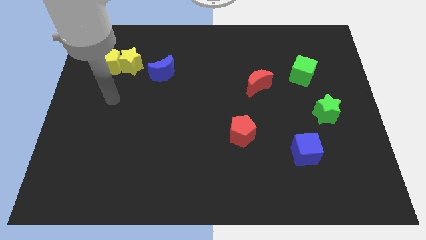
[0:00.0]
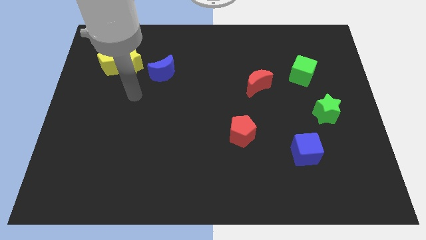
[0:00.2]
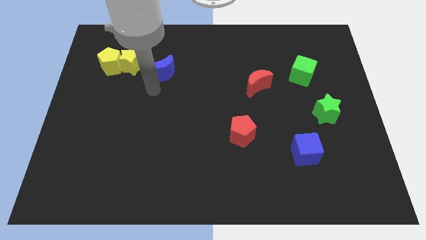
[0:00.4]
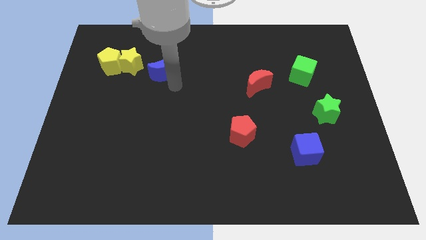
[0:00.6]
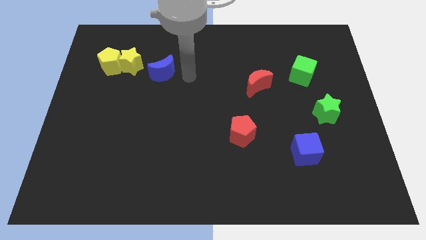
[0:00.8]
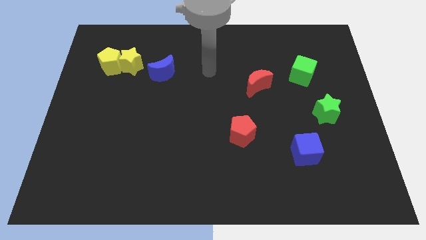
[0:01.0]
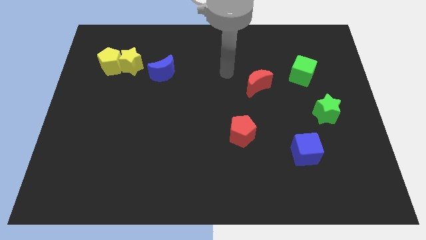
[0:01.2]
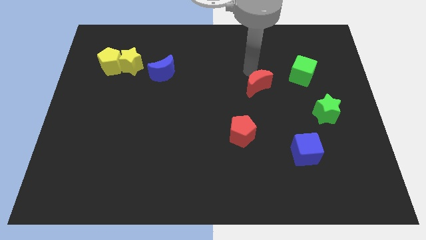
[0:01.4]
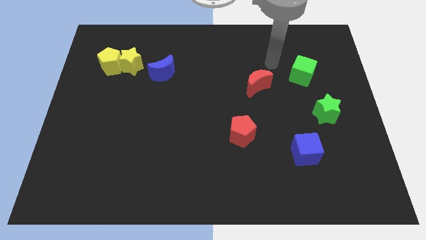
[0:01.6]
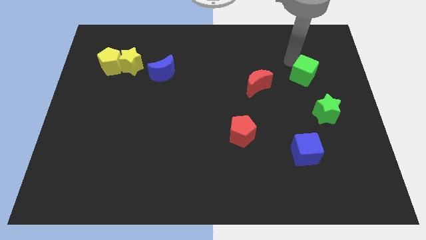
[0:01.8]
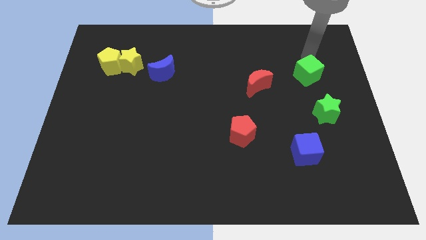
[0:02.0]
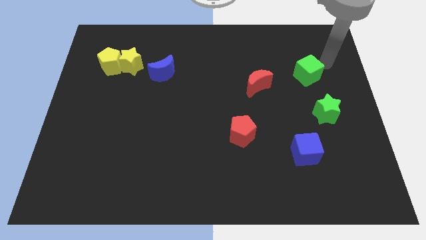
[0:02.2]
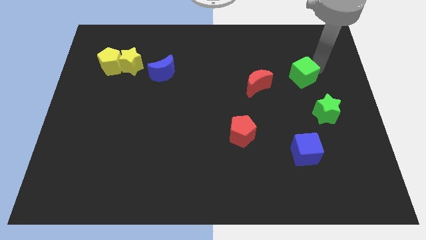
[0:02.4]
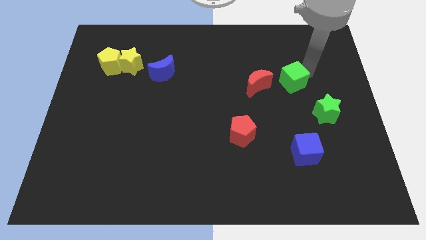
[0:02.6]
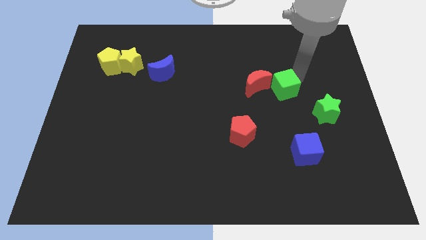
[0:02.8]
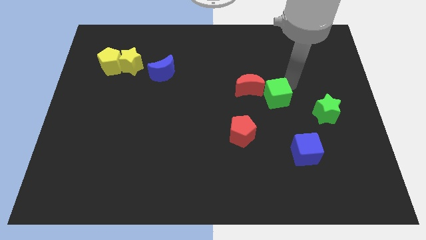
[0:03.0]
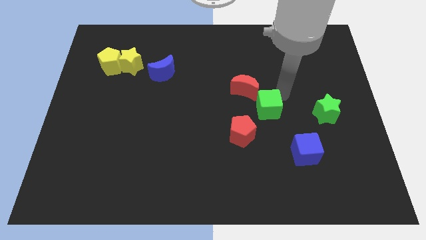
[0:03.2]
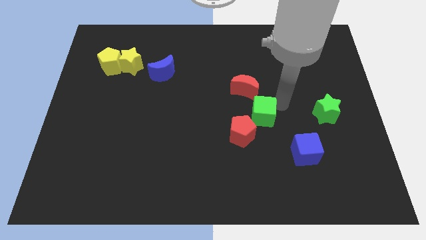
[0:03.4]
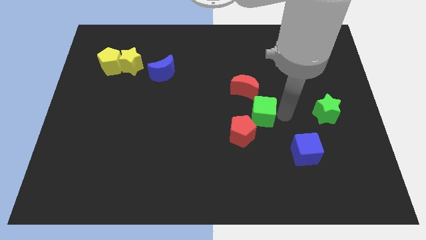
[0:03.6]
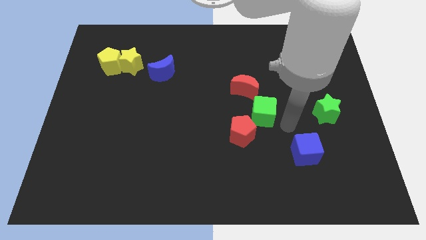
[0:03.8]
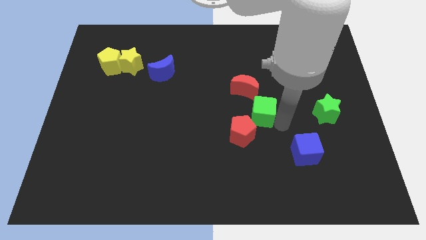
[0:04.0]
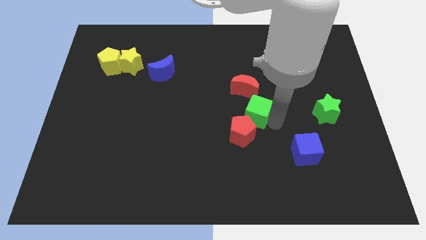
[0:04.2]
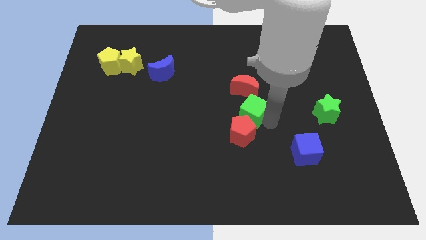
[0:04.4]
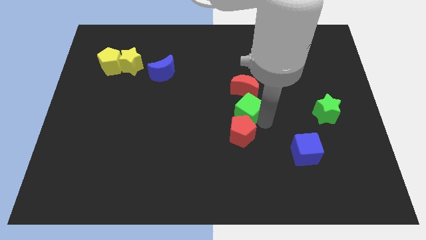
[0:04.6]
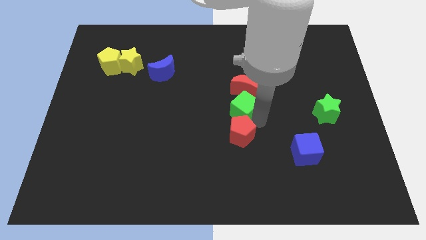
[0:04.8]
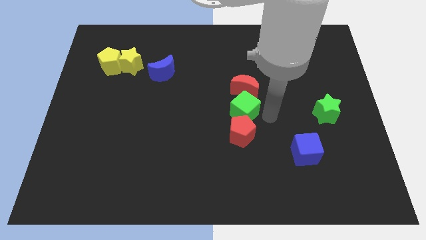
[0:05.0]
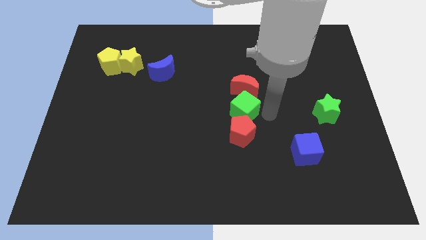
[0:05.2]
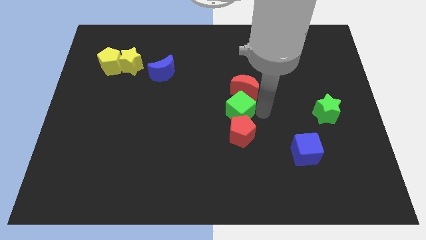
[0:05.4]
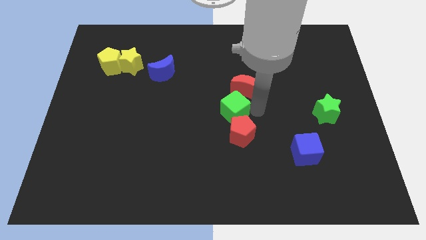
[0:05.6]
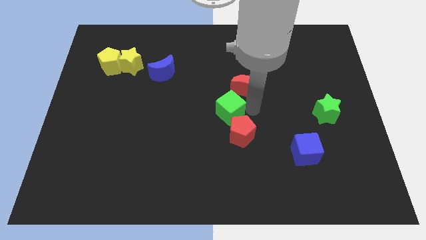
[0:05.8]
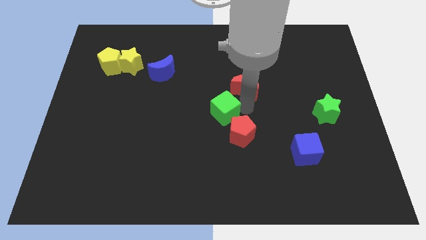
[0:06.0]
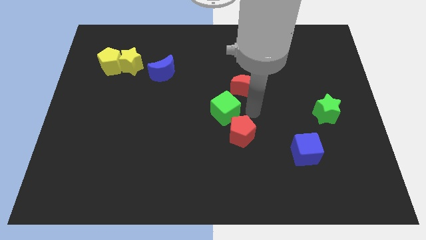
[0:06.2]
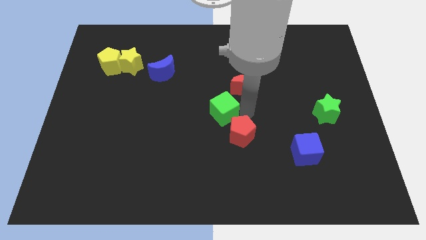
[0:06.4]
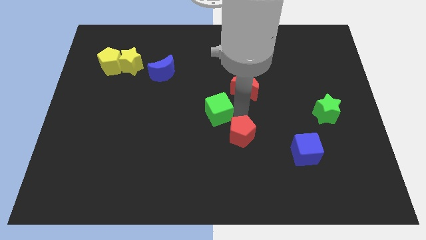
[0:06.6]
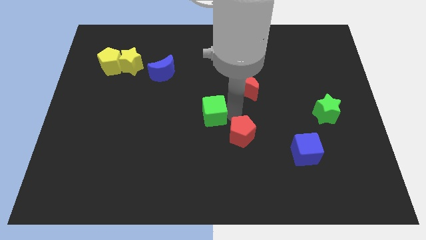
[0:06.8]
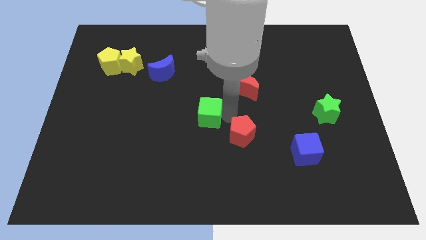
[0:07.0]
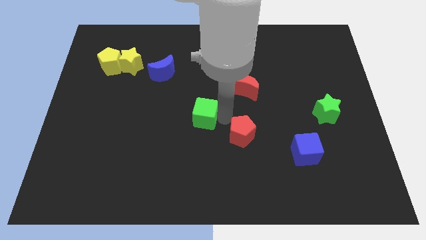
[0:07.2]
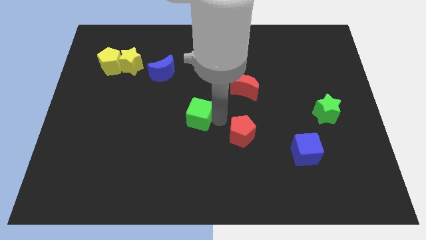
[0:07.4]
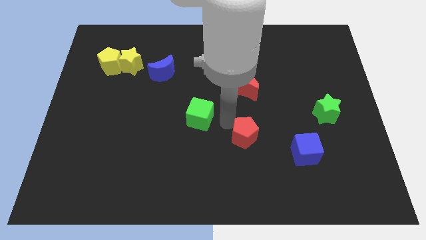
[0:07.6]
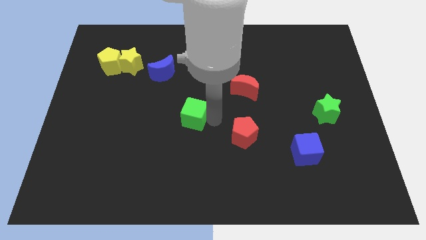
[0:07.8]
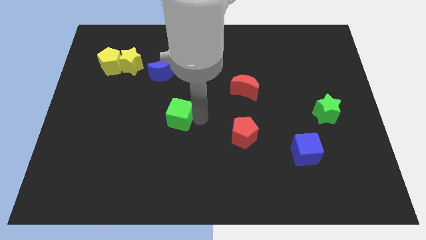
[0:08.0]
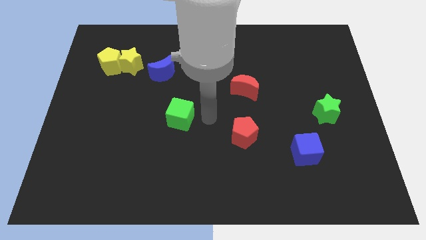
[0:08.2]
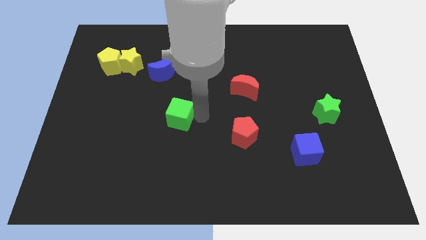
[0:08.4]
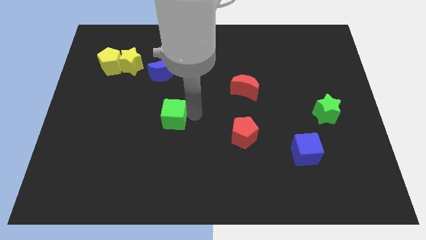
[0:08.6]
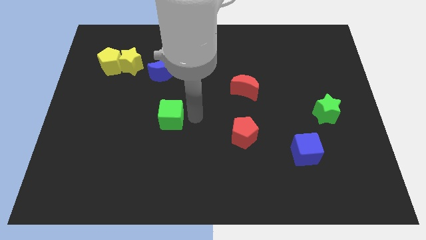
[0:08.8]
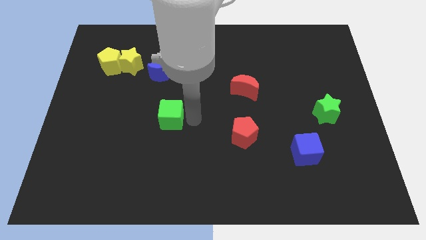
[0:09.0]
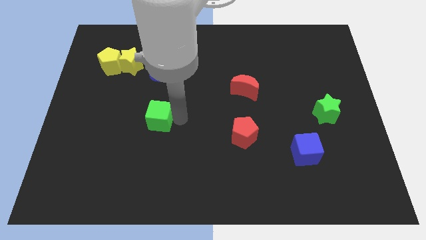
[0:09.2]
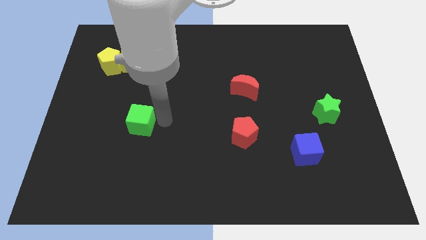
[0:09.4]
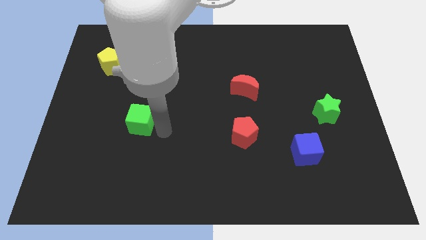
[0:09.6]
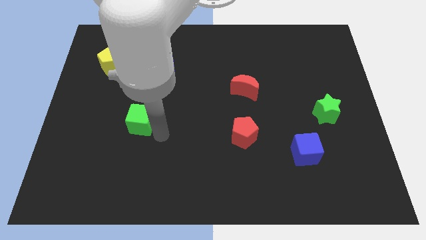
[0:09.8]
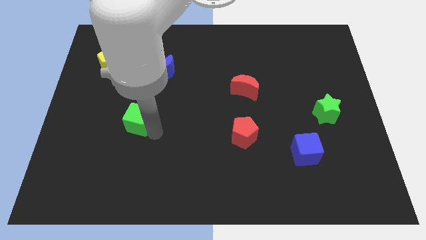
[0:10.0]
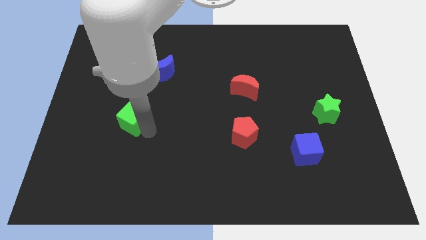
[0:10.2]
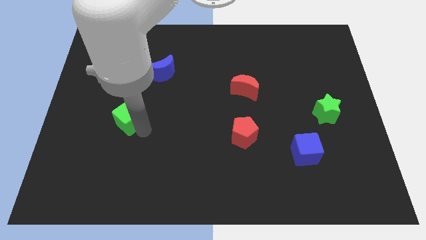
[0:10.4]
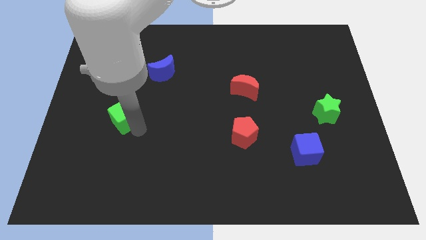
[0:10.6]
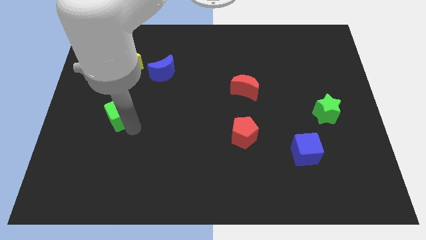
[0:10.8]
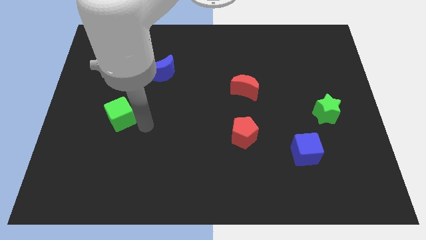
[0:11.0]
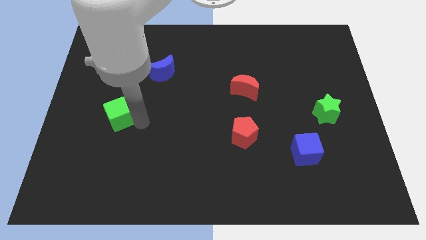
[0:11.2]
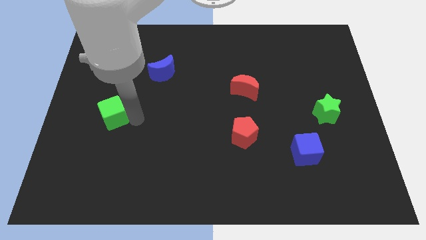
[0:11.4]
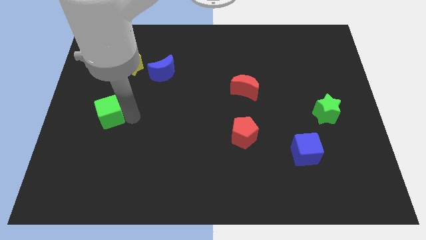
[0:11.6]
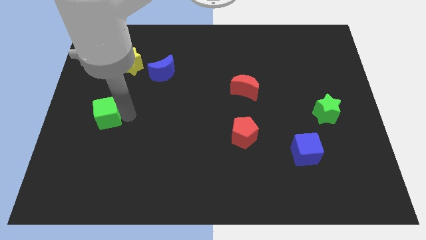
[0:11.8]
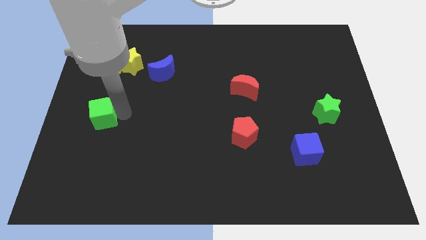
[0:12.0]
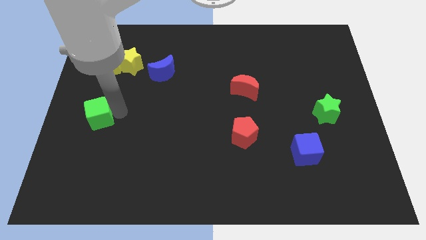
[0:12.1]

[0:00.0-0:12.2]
push the green cube to the left side of the board
